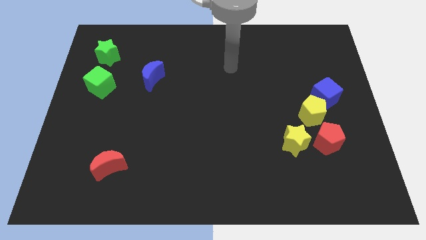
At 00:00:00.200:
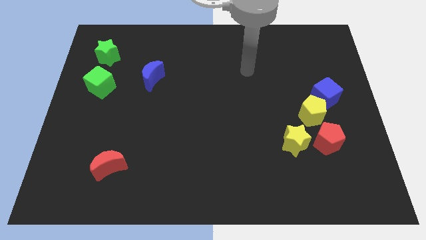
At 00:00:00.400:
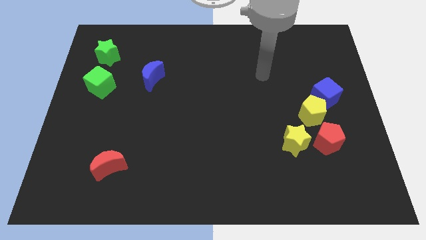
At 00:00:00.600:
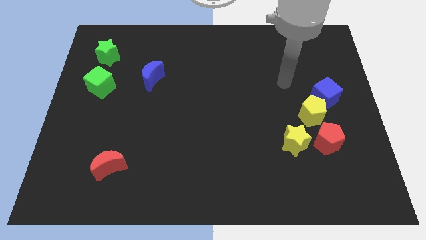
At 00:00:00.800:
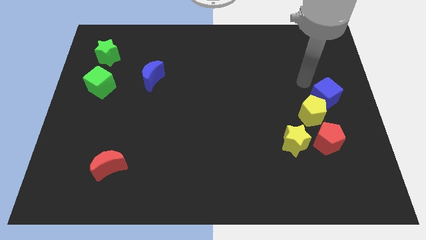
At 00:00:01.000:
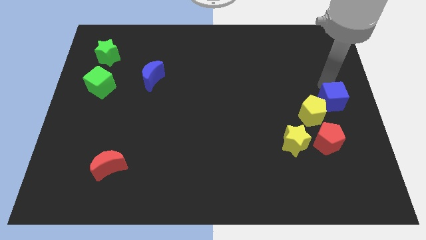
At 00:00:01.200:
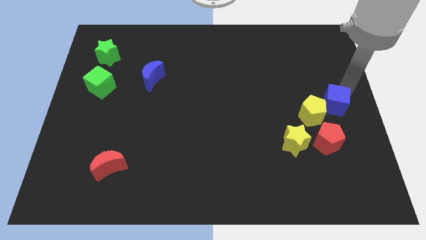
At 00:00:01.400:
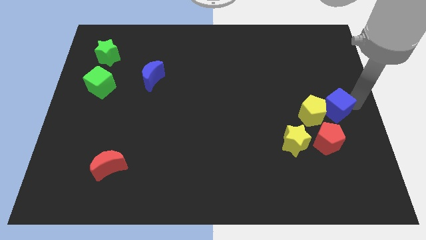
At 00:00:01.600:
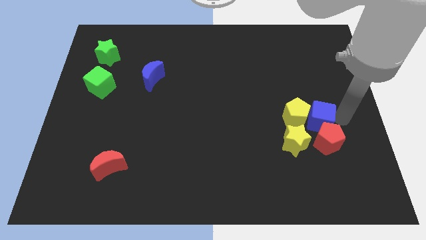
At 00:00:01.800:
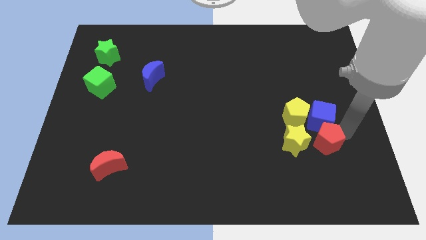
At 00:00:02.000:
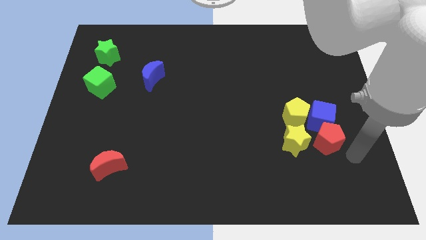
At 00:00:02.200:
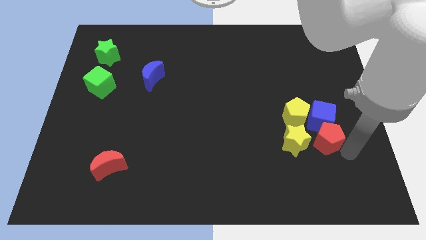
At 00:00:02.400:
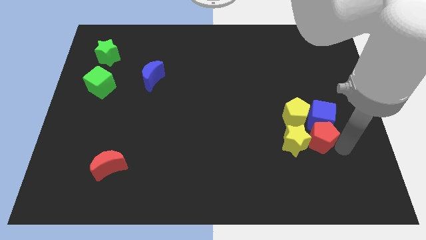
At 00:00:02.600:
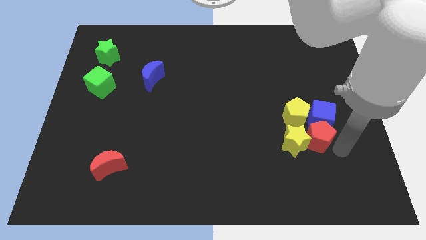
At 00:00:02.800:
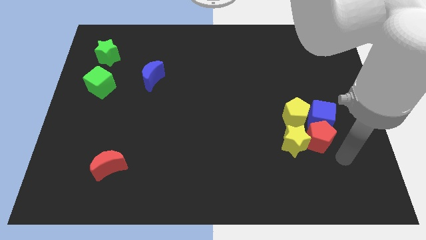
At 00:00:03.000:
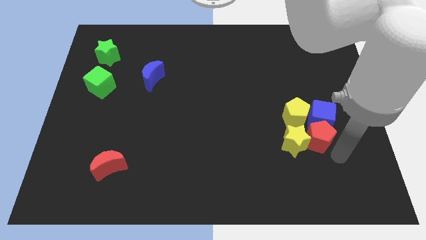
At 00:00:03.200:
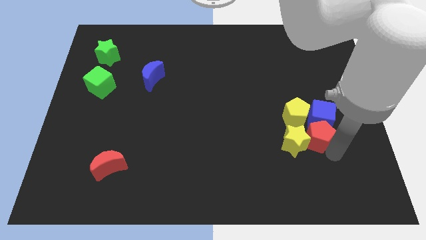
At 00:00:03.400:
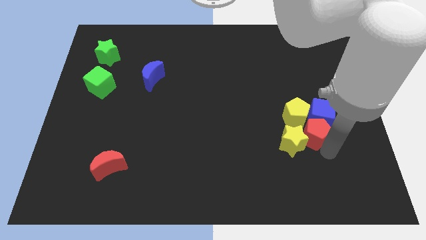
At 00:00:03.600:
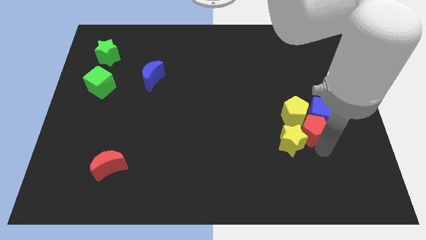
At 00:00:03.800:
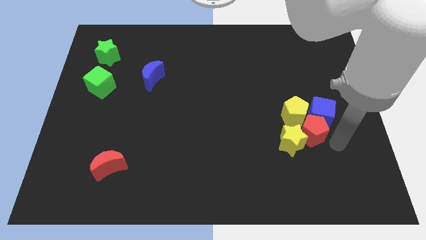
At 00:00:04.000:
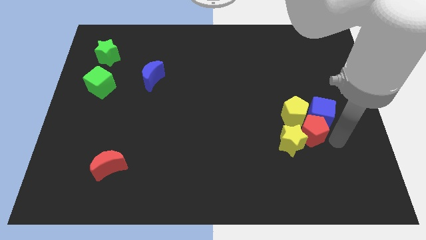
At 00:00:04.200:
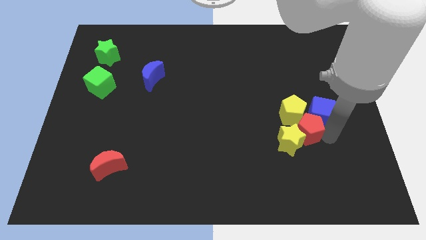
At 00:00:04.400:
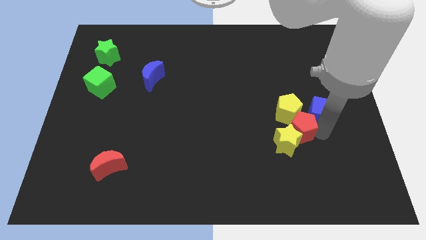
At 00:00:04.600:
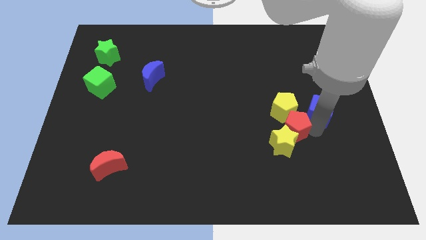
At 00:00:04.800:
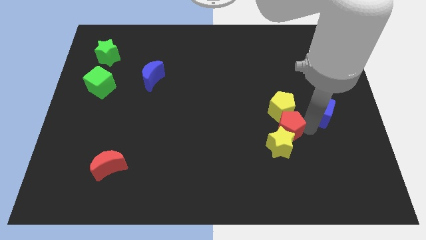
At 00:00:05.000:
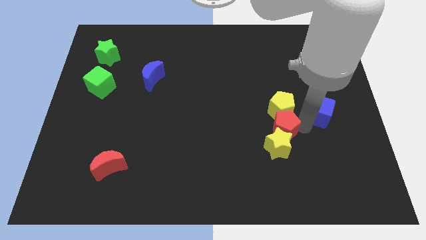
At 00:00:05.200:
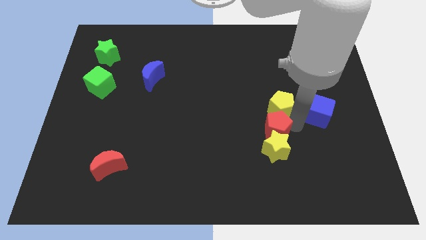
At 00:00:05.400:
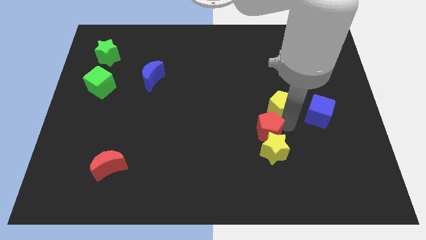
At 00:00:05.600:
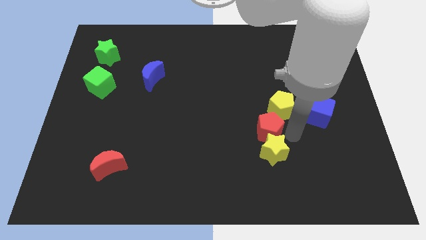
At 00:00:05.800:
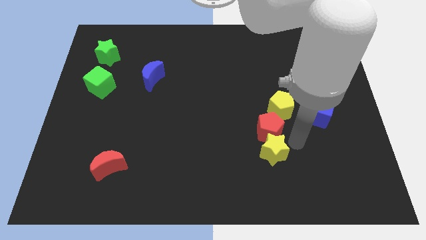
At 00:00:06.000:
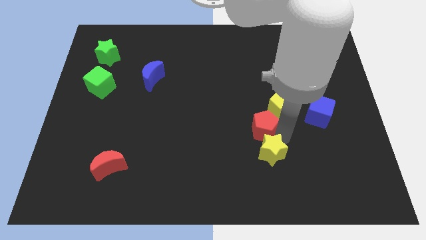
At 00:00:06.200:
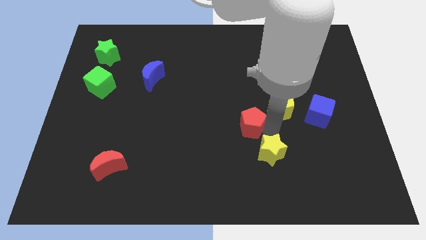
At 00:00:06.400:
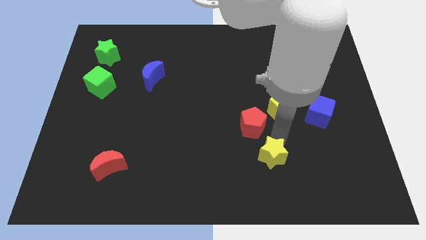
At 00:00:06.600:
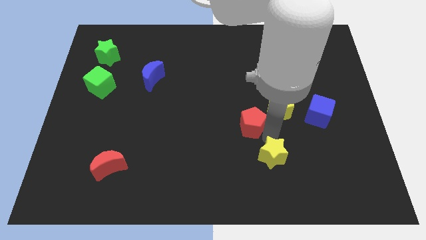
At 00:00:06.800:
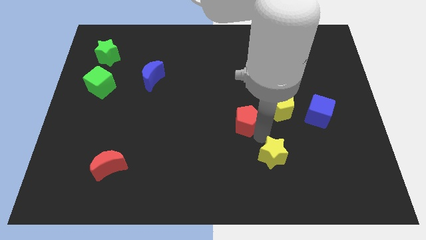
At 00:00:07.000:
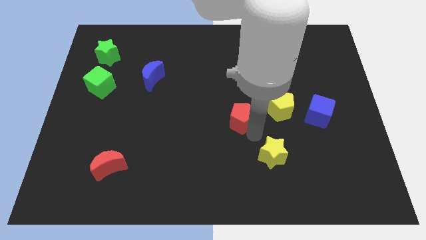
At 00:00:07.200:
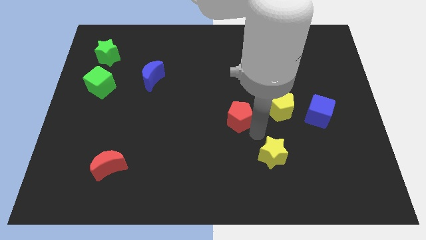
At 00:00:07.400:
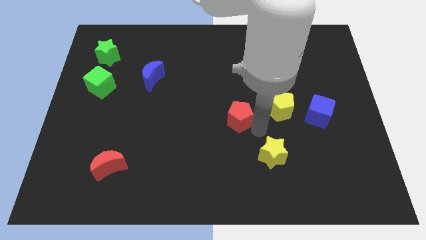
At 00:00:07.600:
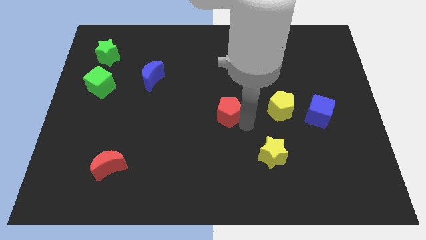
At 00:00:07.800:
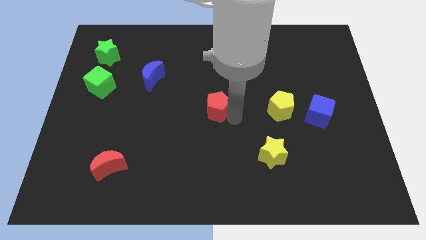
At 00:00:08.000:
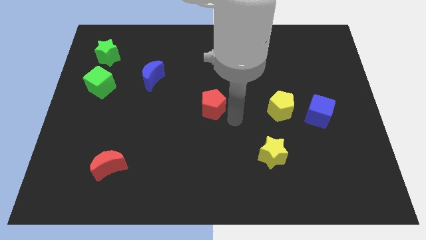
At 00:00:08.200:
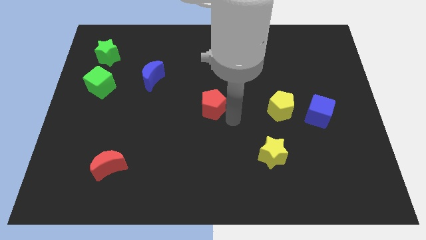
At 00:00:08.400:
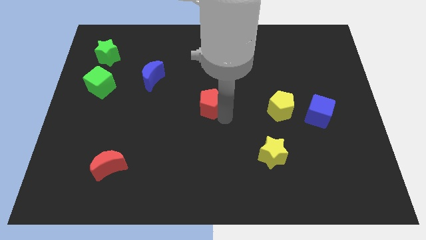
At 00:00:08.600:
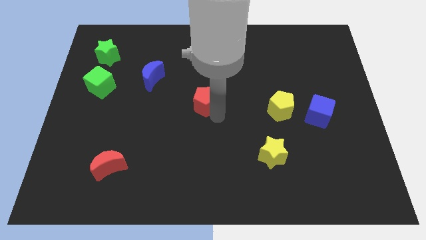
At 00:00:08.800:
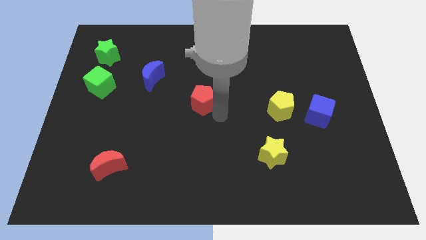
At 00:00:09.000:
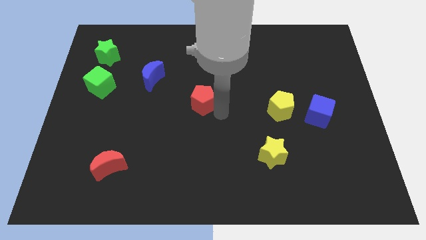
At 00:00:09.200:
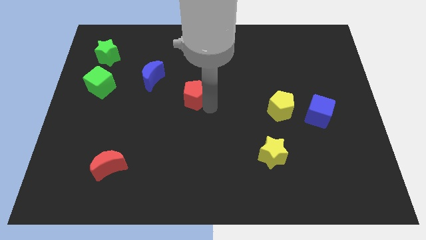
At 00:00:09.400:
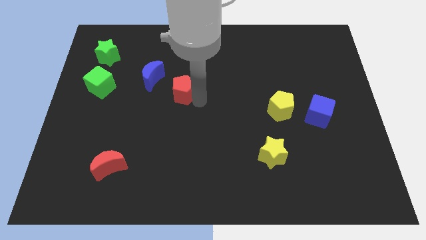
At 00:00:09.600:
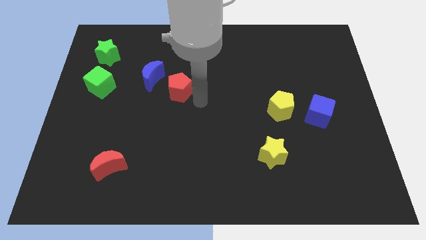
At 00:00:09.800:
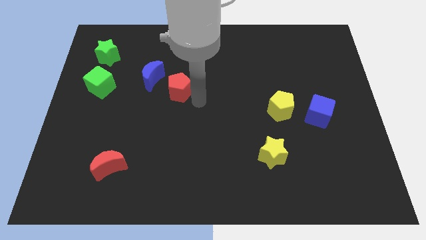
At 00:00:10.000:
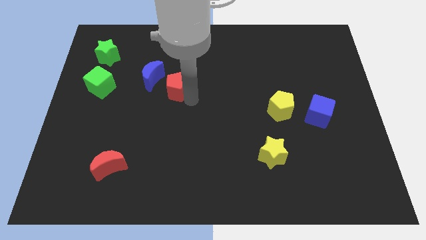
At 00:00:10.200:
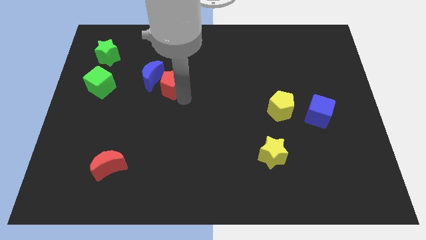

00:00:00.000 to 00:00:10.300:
put the red pentagon towards the blue moon

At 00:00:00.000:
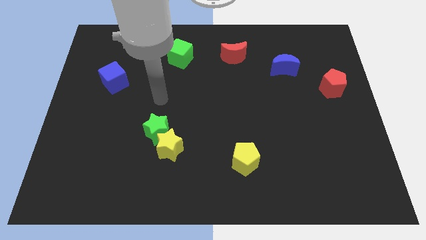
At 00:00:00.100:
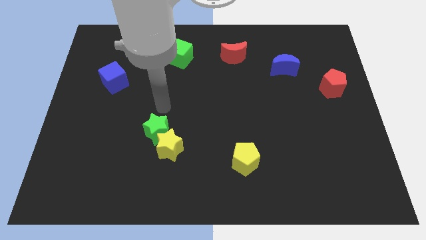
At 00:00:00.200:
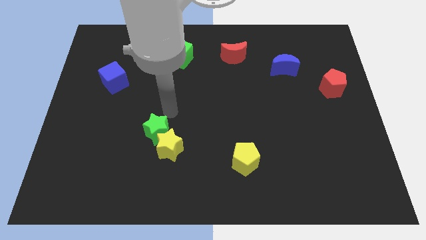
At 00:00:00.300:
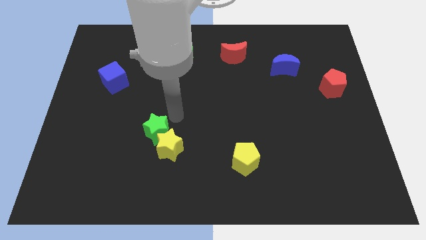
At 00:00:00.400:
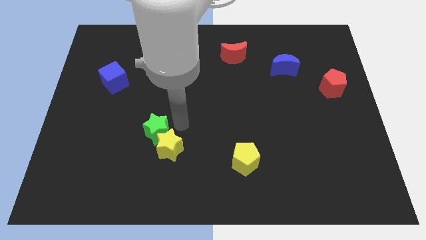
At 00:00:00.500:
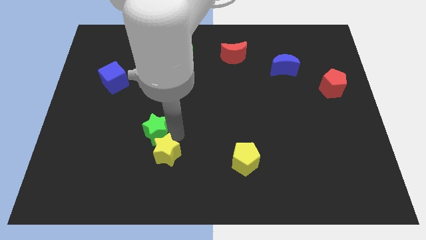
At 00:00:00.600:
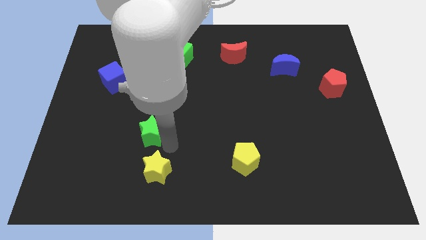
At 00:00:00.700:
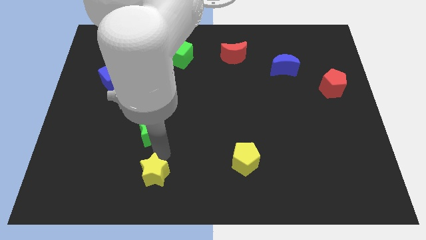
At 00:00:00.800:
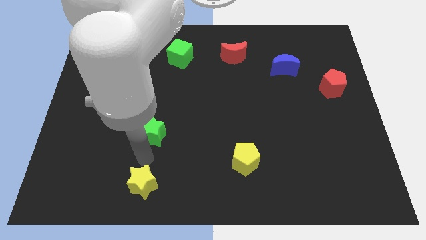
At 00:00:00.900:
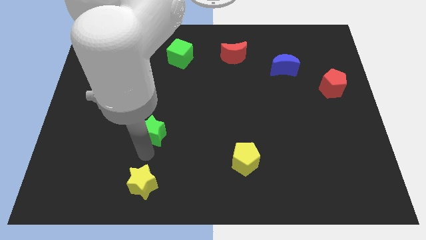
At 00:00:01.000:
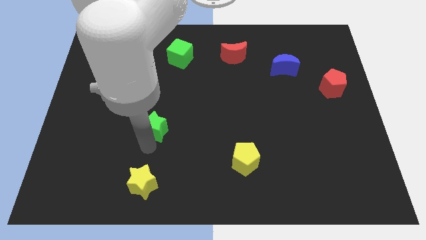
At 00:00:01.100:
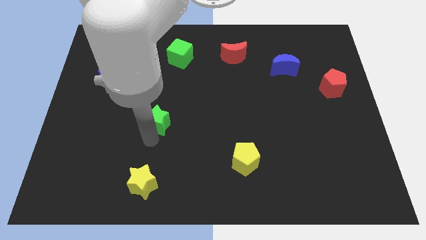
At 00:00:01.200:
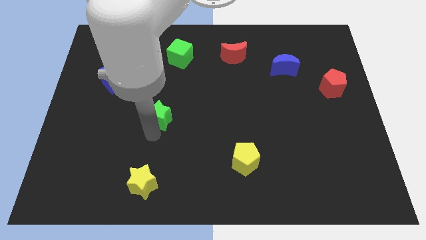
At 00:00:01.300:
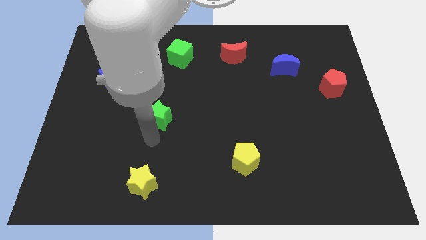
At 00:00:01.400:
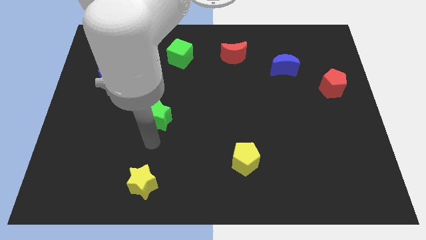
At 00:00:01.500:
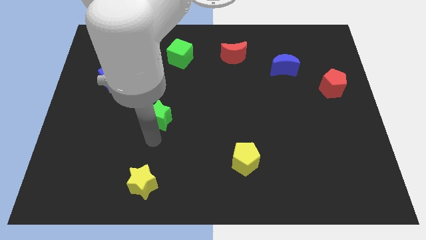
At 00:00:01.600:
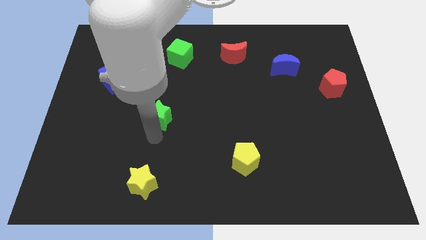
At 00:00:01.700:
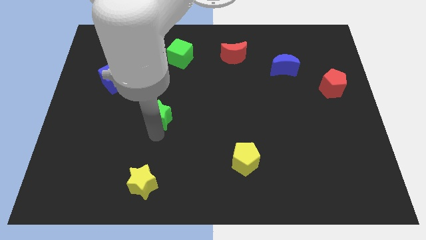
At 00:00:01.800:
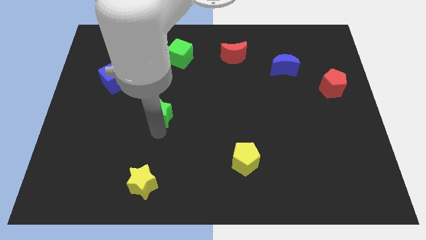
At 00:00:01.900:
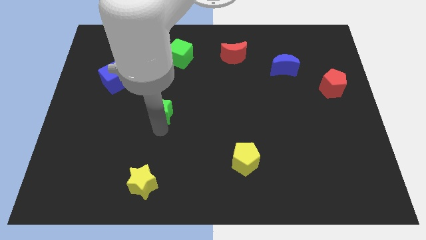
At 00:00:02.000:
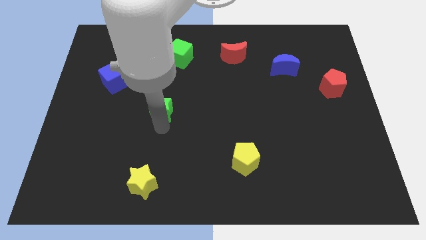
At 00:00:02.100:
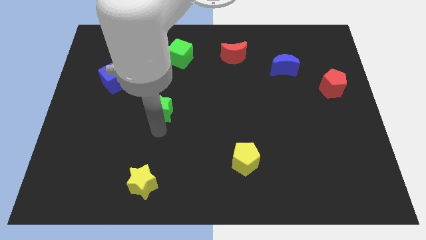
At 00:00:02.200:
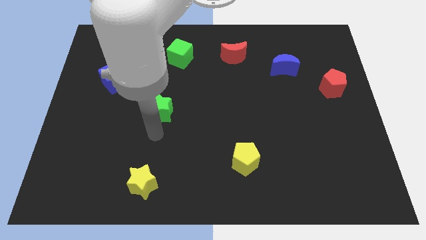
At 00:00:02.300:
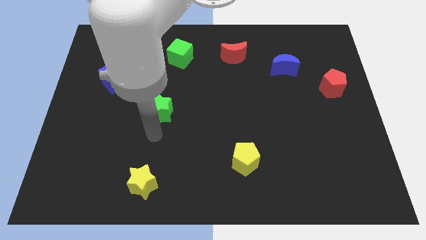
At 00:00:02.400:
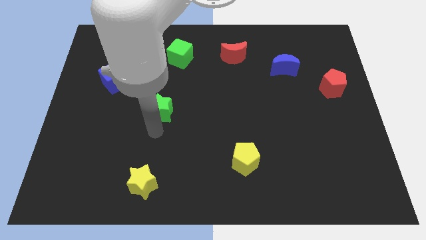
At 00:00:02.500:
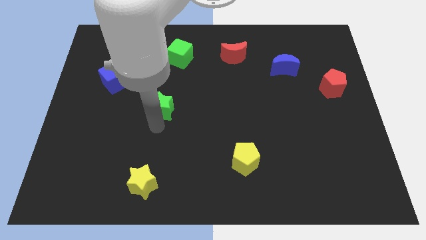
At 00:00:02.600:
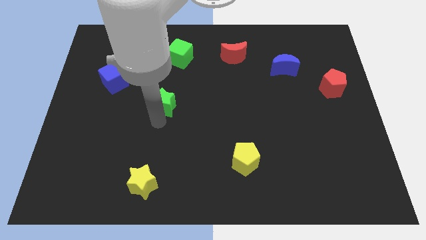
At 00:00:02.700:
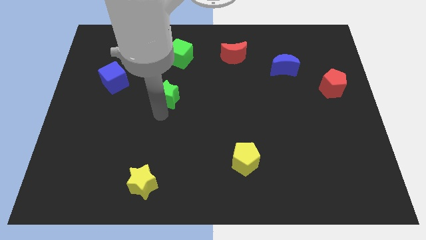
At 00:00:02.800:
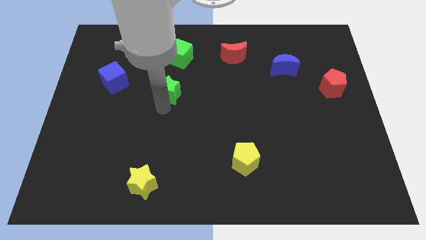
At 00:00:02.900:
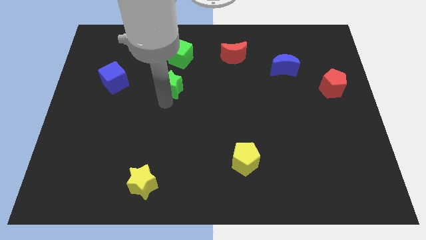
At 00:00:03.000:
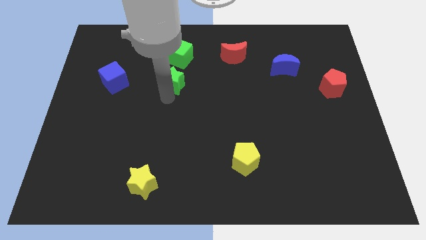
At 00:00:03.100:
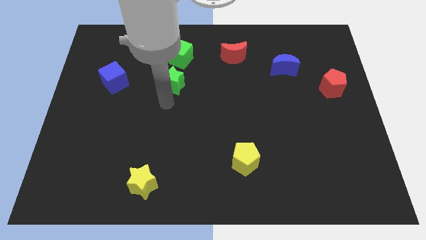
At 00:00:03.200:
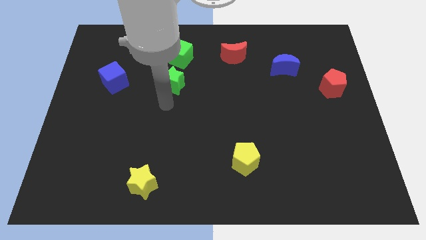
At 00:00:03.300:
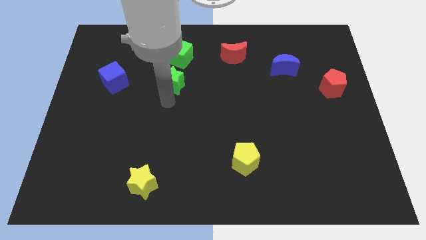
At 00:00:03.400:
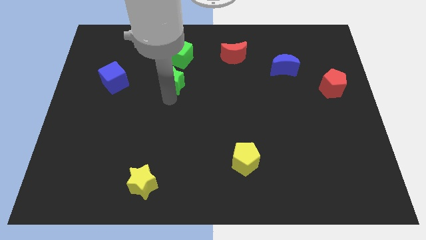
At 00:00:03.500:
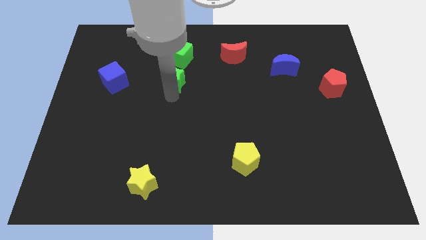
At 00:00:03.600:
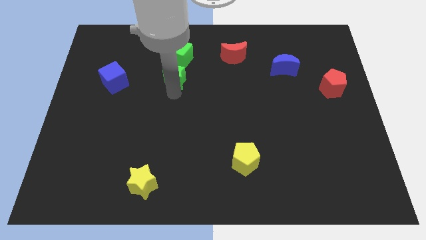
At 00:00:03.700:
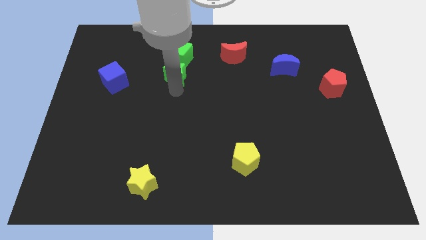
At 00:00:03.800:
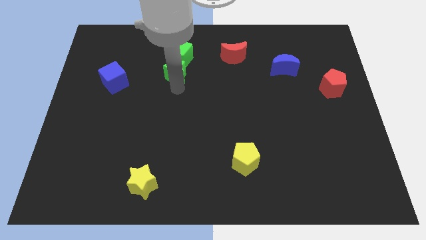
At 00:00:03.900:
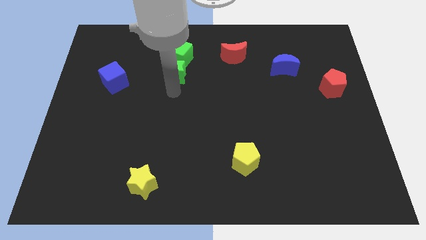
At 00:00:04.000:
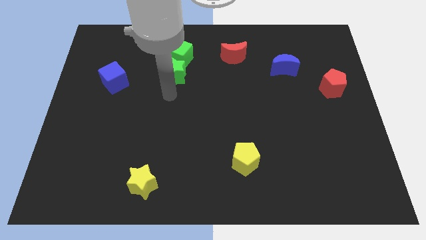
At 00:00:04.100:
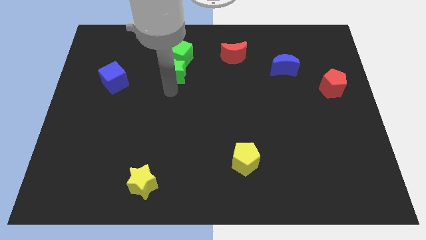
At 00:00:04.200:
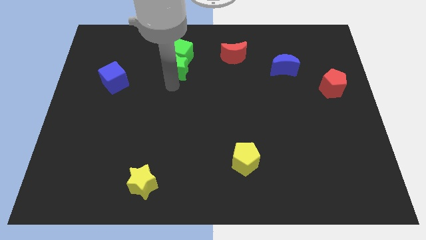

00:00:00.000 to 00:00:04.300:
move the green star next to the green cube
